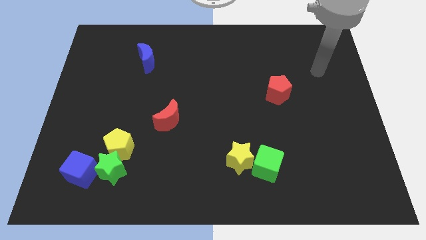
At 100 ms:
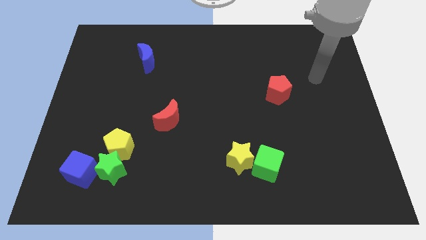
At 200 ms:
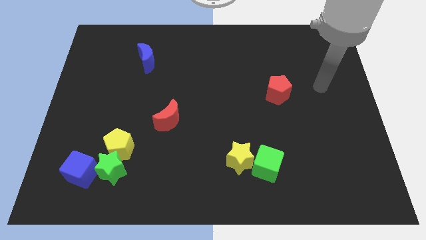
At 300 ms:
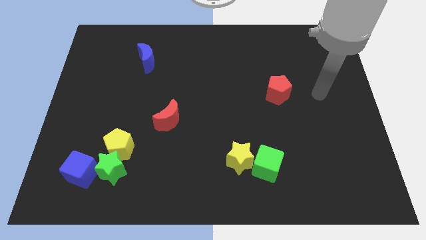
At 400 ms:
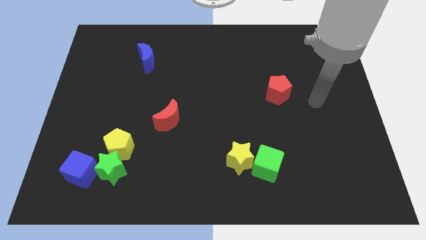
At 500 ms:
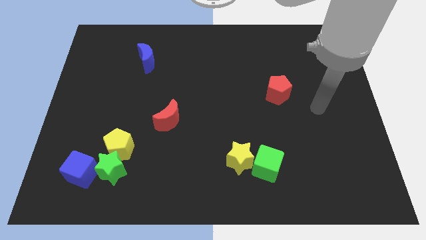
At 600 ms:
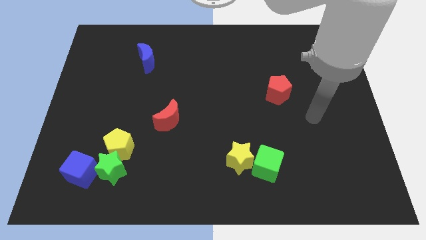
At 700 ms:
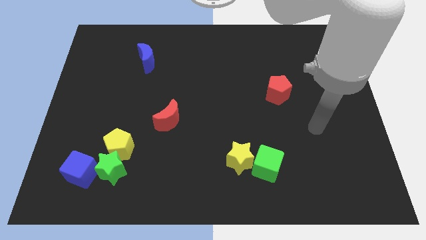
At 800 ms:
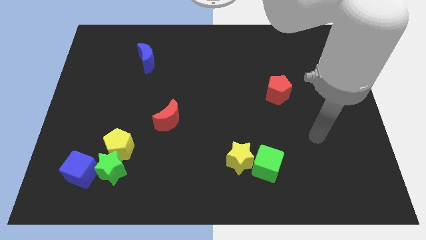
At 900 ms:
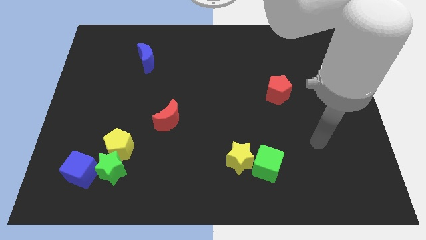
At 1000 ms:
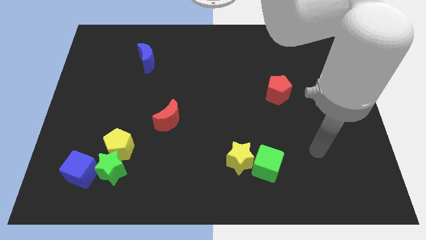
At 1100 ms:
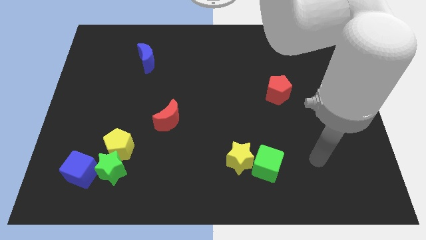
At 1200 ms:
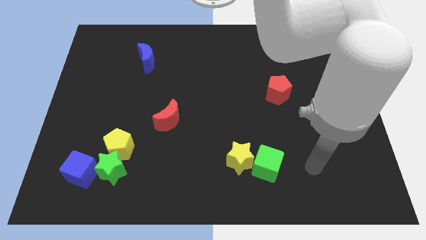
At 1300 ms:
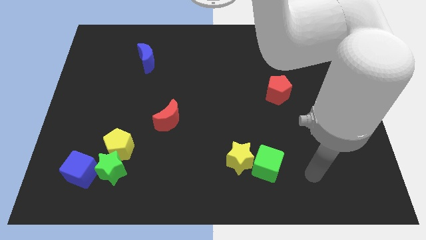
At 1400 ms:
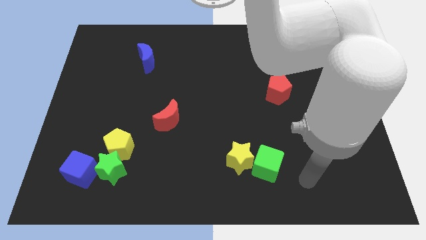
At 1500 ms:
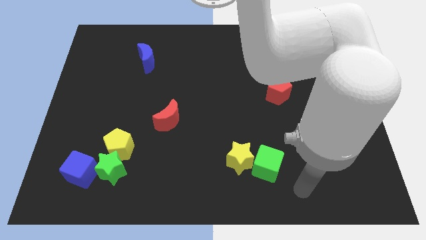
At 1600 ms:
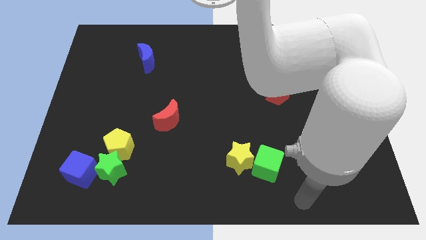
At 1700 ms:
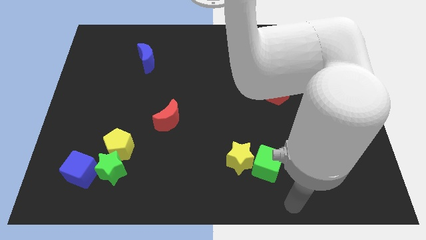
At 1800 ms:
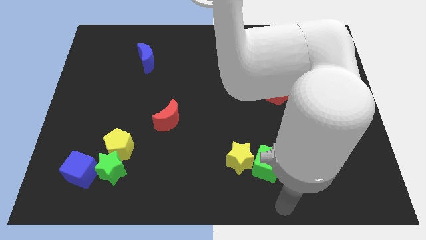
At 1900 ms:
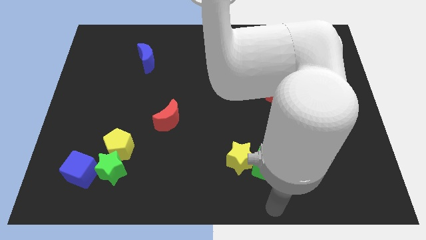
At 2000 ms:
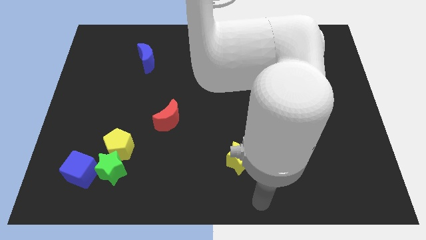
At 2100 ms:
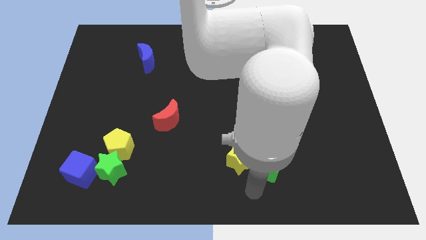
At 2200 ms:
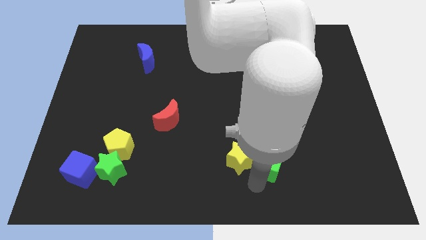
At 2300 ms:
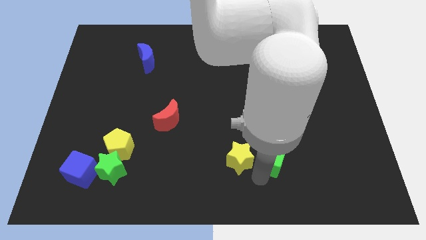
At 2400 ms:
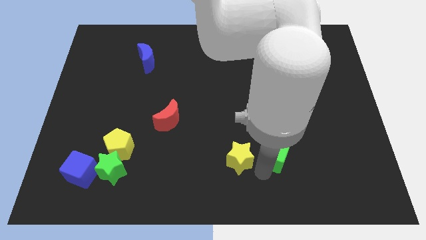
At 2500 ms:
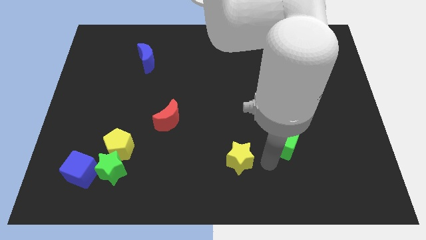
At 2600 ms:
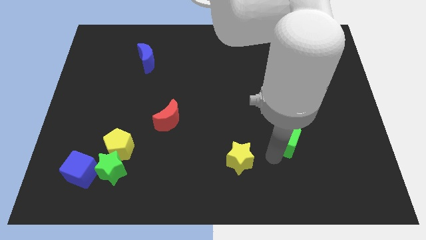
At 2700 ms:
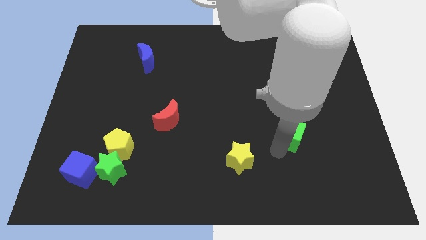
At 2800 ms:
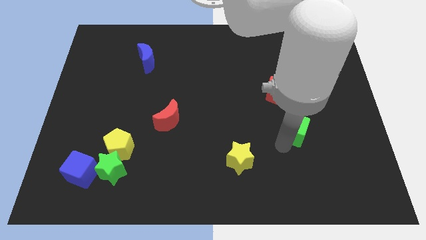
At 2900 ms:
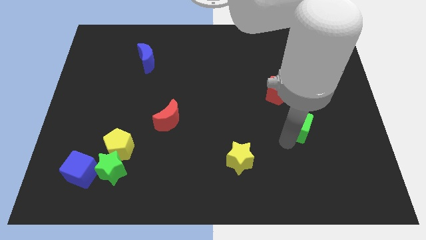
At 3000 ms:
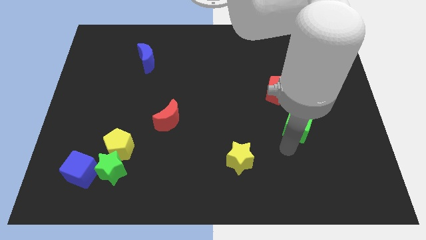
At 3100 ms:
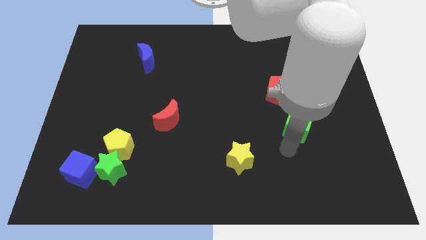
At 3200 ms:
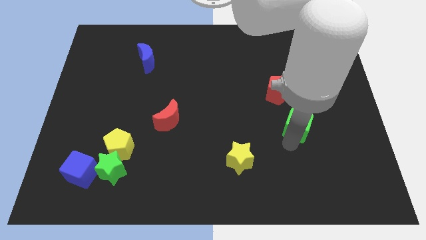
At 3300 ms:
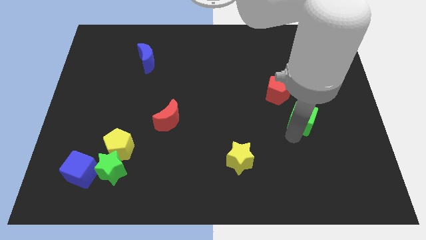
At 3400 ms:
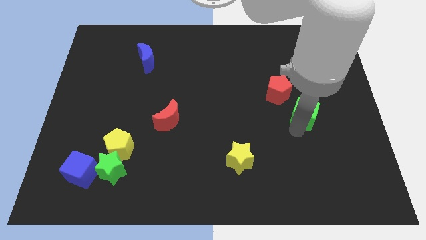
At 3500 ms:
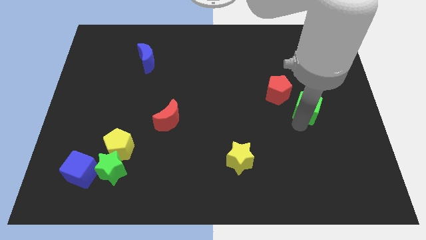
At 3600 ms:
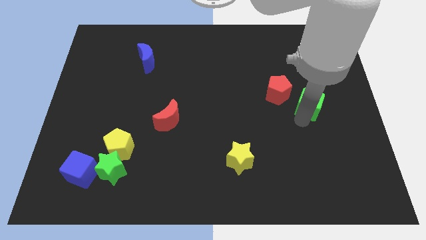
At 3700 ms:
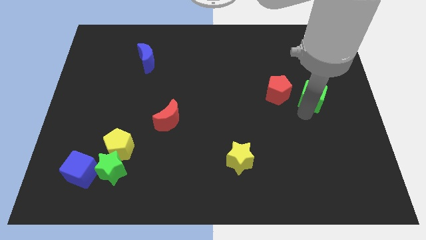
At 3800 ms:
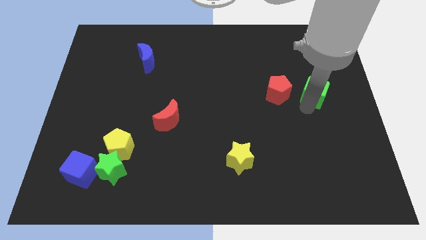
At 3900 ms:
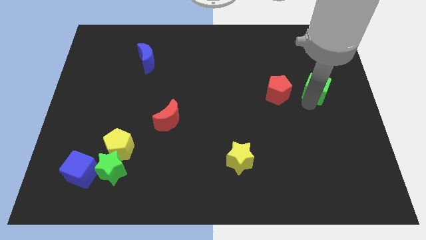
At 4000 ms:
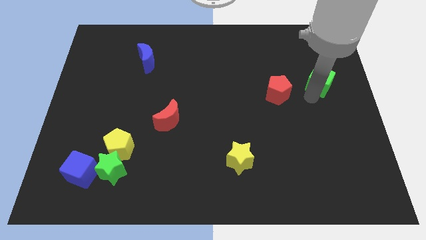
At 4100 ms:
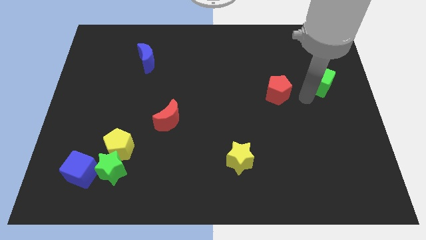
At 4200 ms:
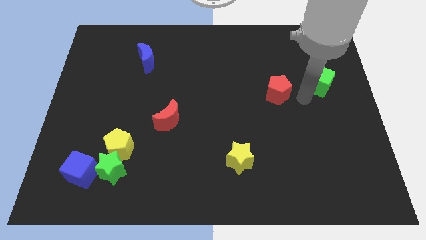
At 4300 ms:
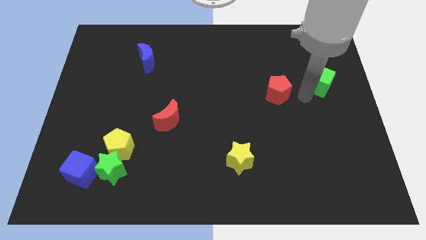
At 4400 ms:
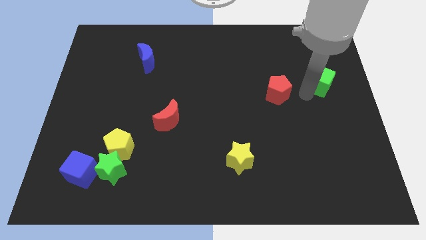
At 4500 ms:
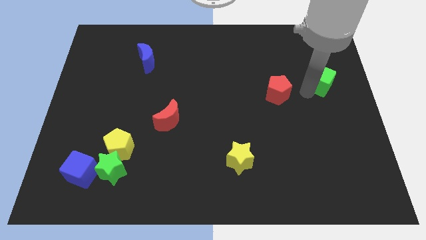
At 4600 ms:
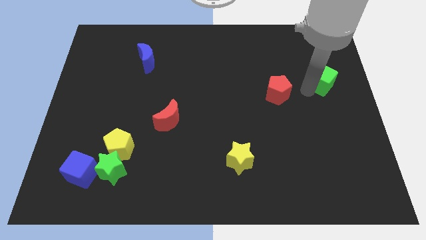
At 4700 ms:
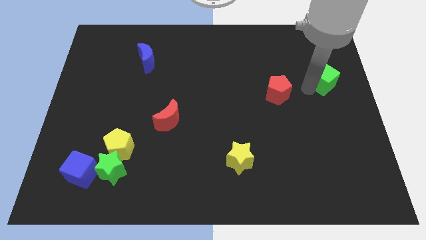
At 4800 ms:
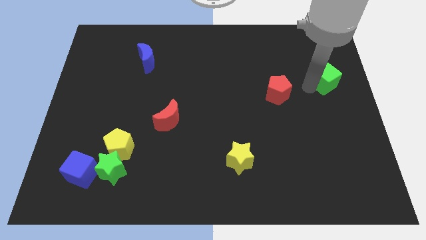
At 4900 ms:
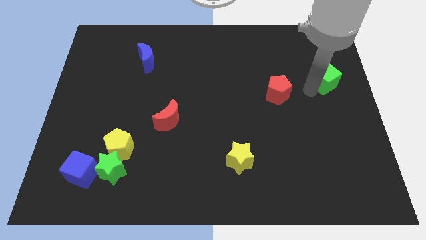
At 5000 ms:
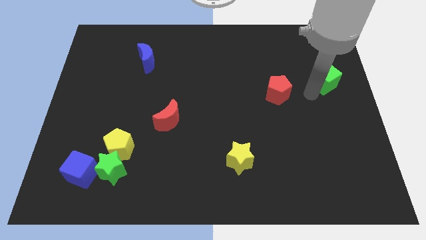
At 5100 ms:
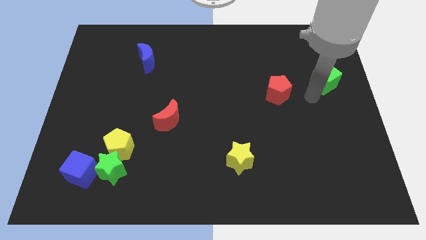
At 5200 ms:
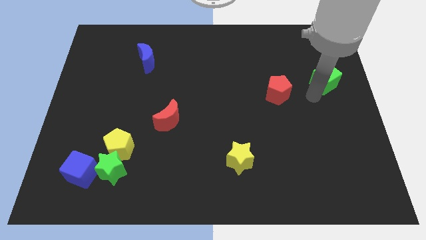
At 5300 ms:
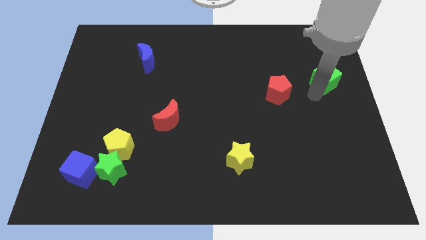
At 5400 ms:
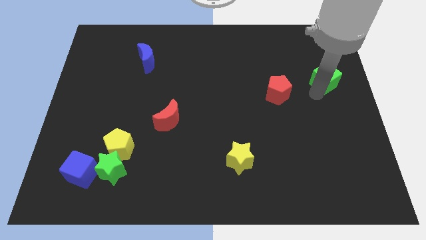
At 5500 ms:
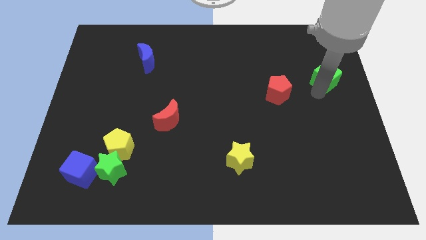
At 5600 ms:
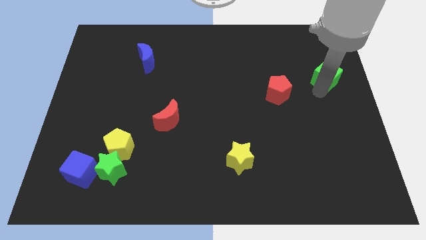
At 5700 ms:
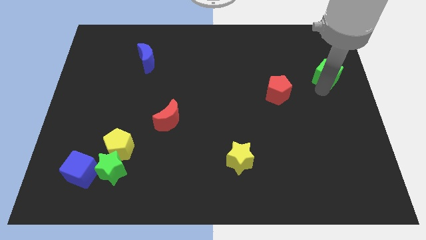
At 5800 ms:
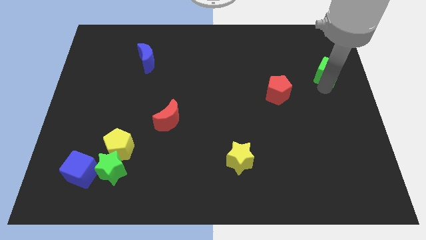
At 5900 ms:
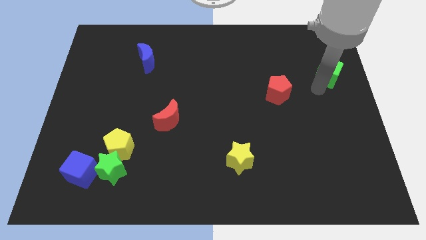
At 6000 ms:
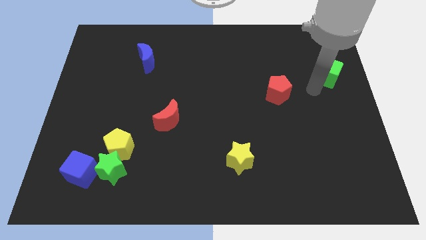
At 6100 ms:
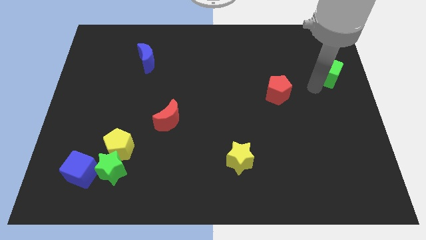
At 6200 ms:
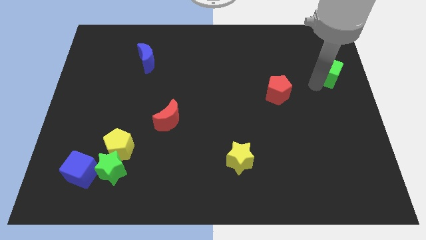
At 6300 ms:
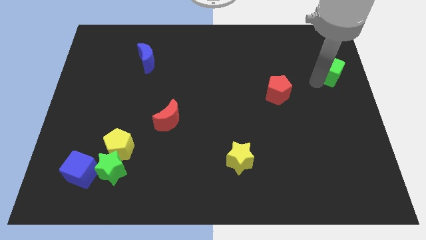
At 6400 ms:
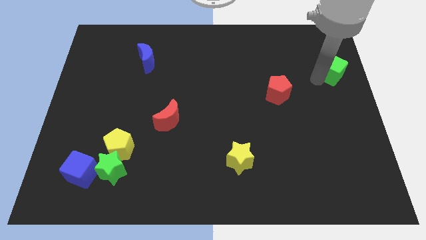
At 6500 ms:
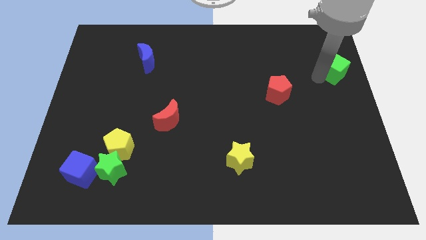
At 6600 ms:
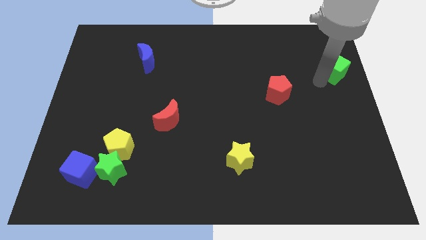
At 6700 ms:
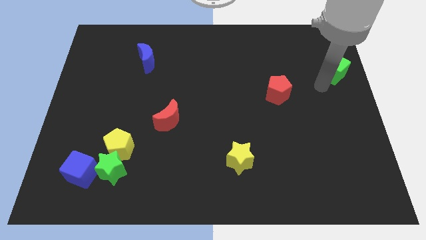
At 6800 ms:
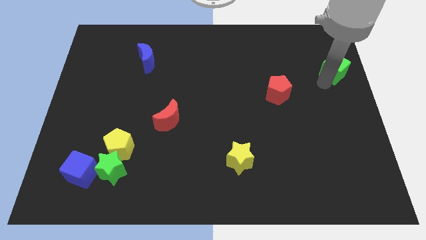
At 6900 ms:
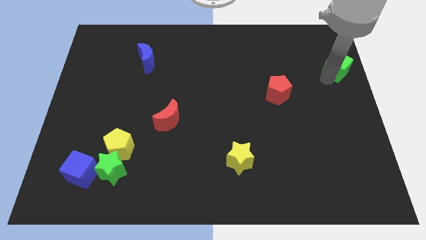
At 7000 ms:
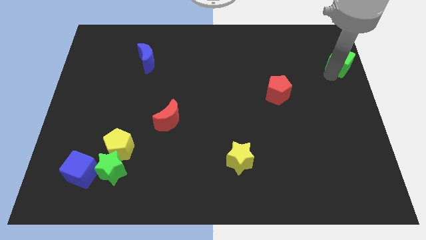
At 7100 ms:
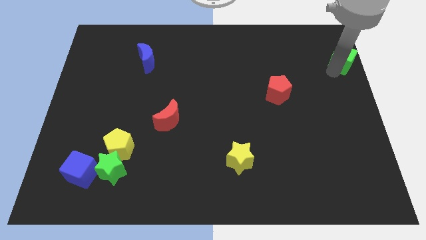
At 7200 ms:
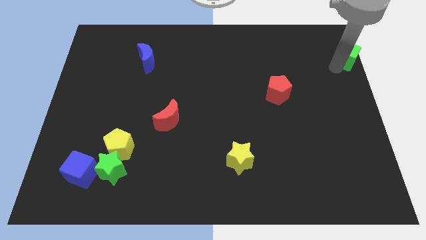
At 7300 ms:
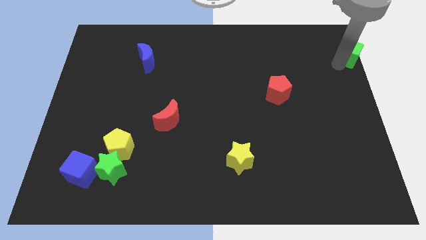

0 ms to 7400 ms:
move the green cube to the top right corner

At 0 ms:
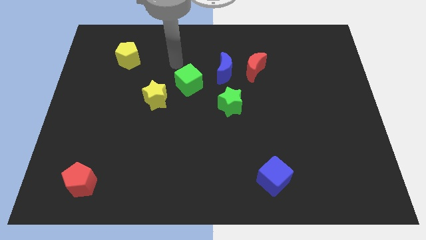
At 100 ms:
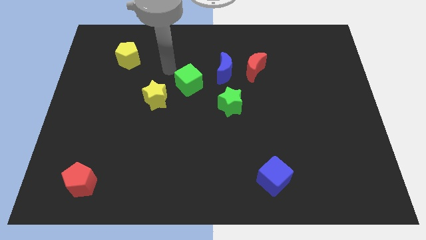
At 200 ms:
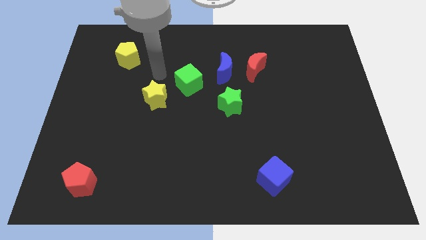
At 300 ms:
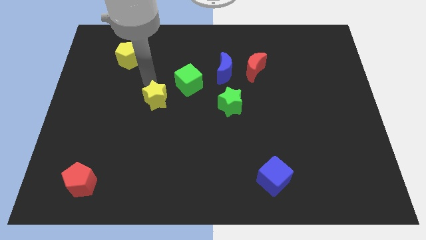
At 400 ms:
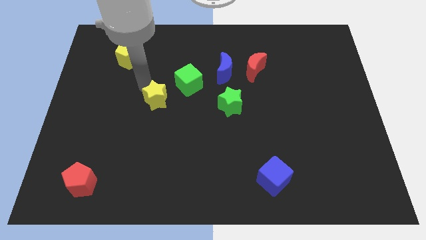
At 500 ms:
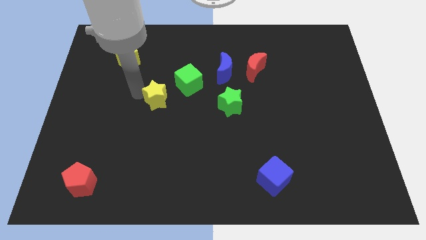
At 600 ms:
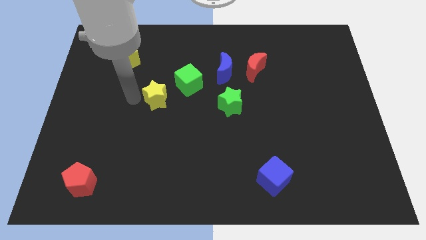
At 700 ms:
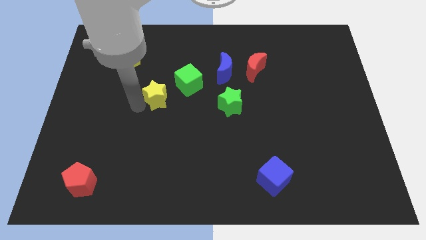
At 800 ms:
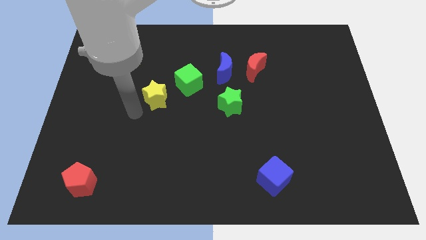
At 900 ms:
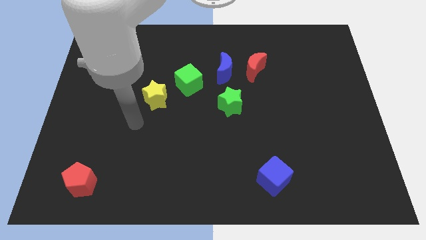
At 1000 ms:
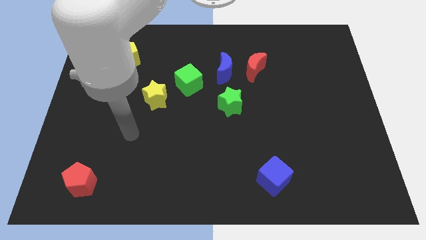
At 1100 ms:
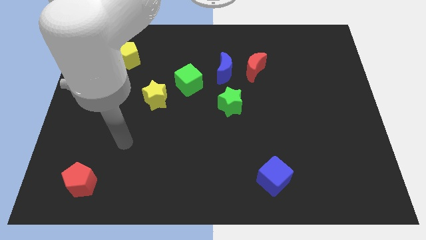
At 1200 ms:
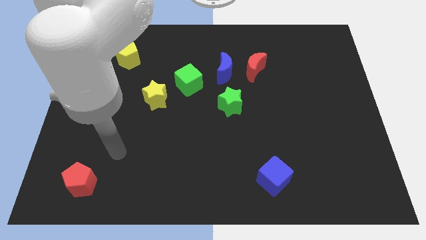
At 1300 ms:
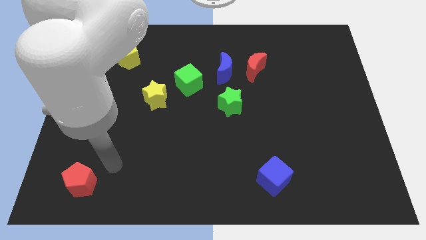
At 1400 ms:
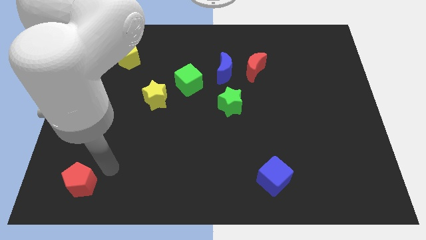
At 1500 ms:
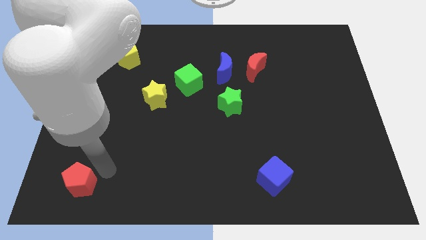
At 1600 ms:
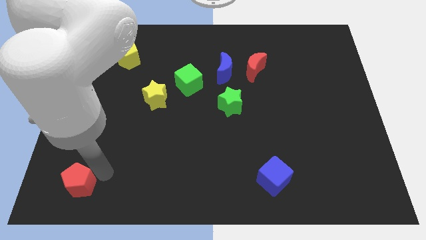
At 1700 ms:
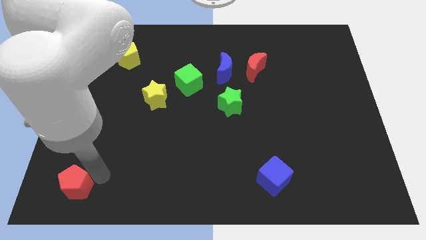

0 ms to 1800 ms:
push the red pentagon to the bottom left
